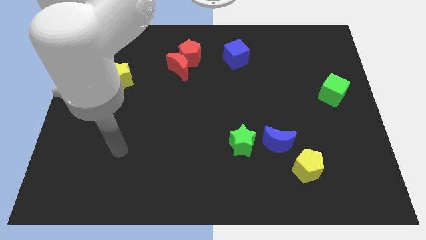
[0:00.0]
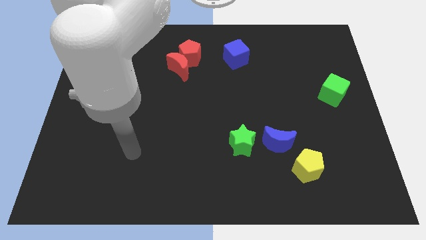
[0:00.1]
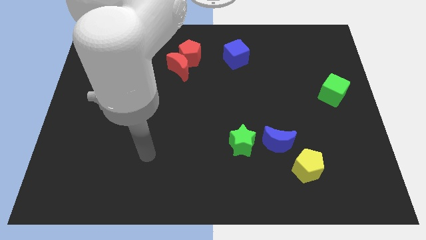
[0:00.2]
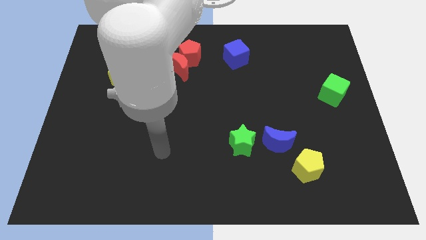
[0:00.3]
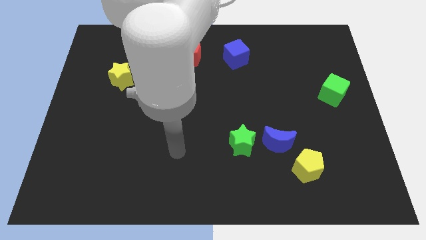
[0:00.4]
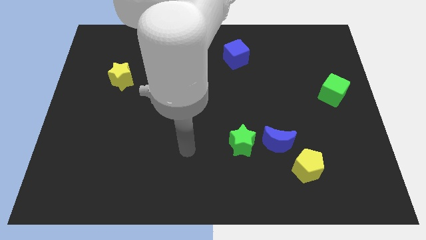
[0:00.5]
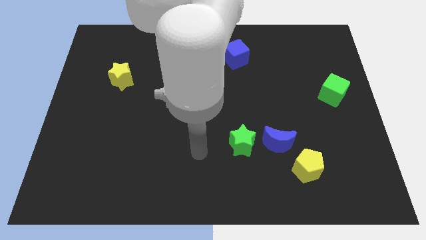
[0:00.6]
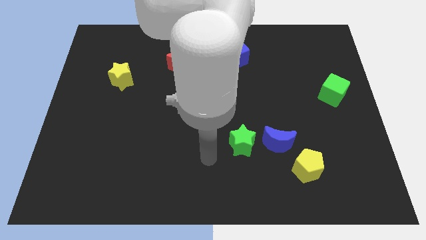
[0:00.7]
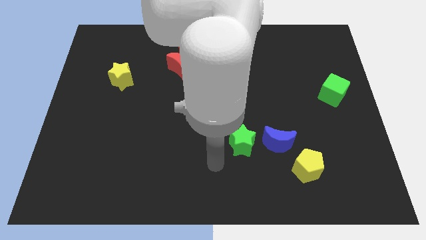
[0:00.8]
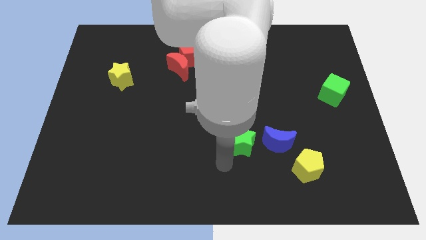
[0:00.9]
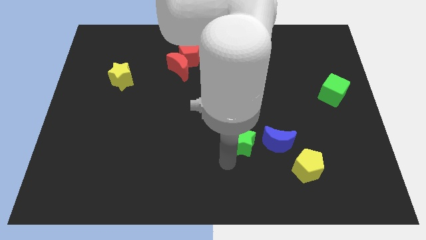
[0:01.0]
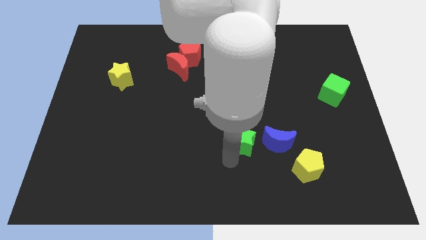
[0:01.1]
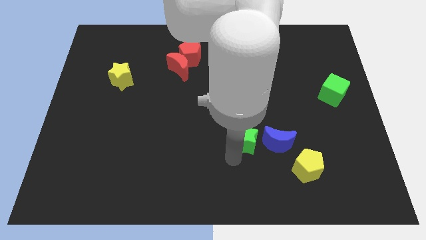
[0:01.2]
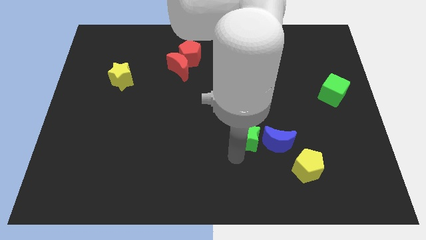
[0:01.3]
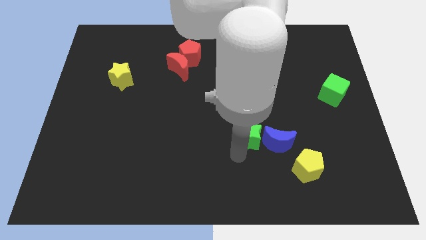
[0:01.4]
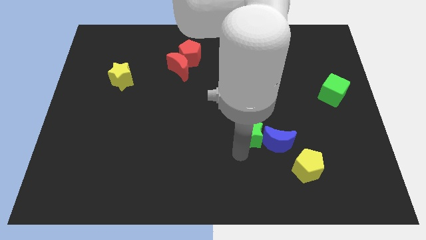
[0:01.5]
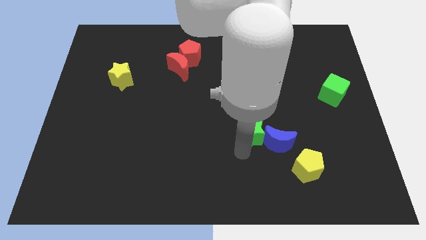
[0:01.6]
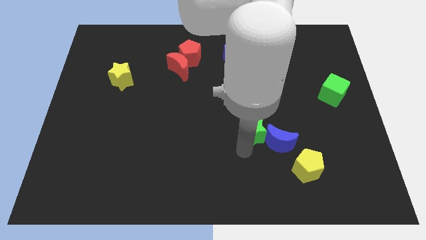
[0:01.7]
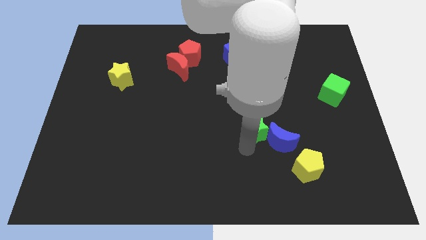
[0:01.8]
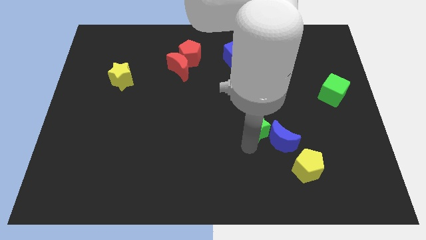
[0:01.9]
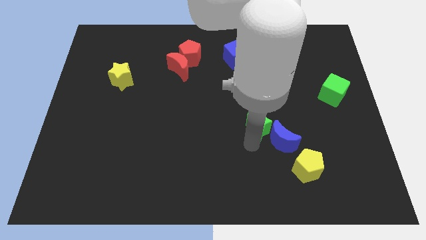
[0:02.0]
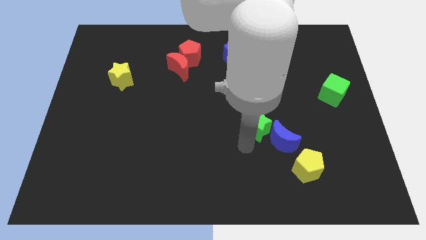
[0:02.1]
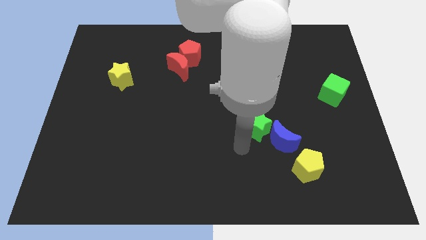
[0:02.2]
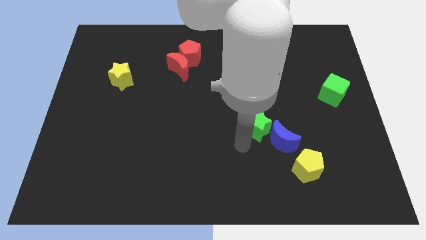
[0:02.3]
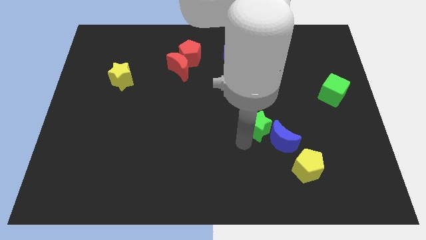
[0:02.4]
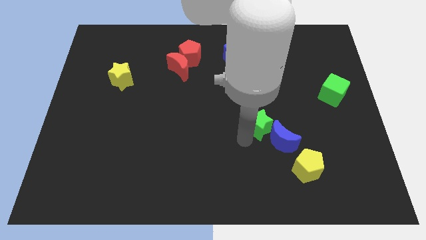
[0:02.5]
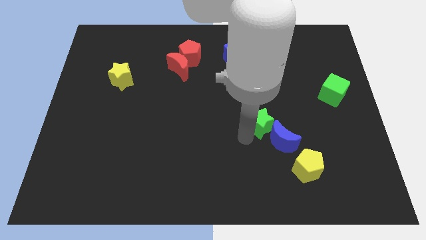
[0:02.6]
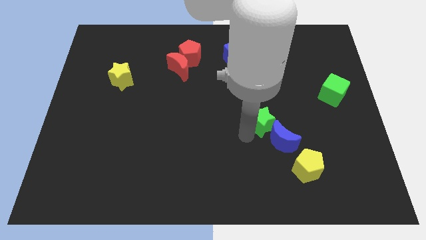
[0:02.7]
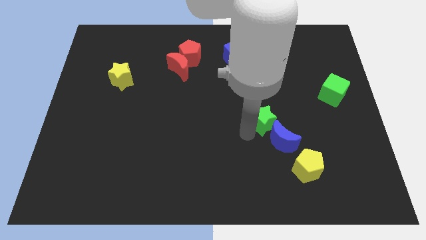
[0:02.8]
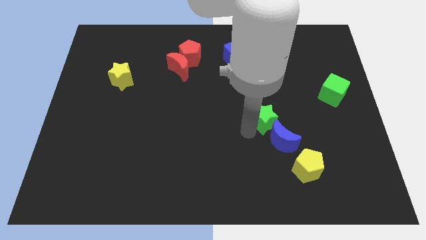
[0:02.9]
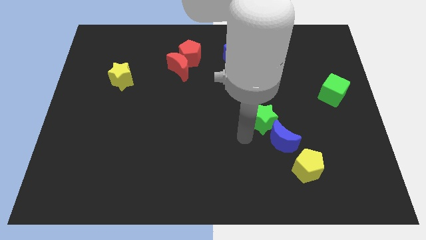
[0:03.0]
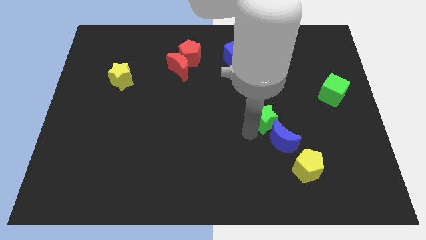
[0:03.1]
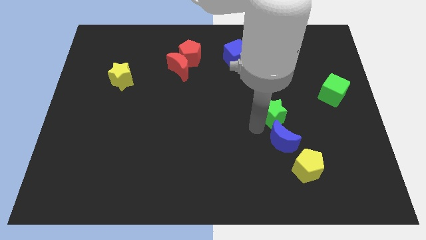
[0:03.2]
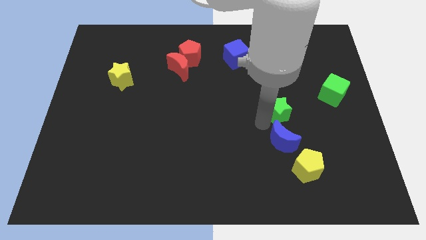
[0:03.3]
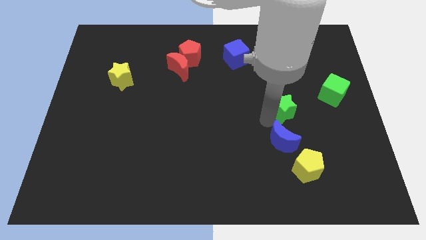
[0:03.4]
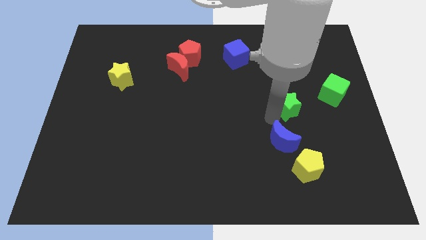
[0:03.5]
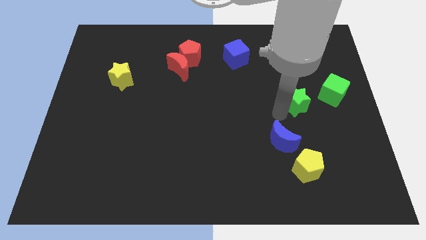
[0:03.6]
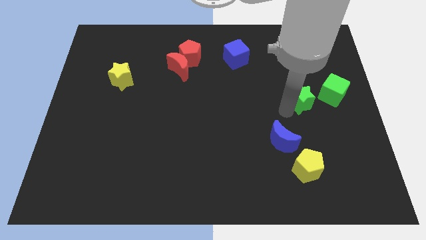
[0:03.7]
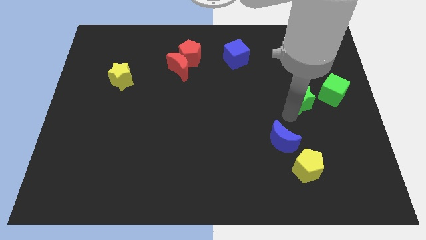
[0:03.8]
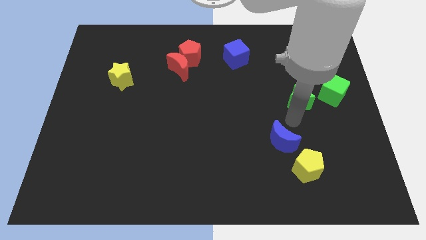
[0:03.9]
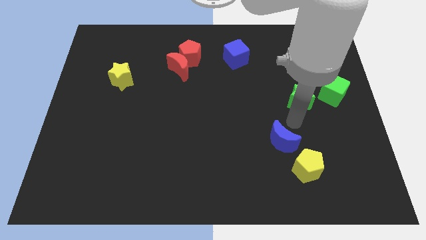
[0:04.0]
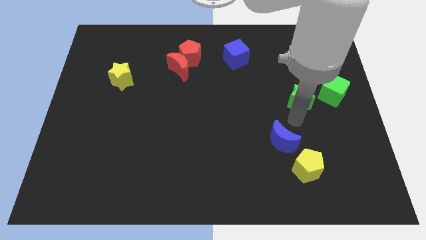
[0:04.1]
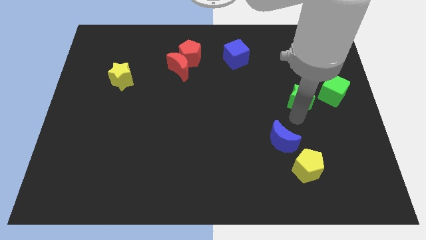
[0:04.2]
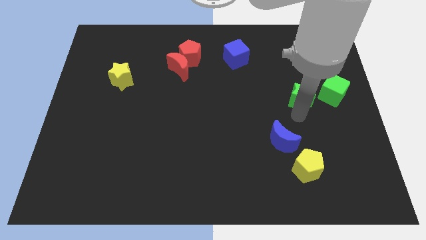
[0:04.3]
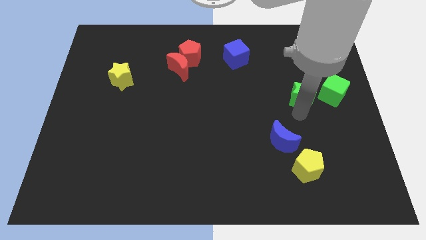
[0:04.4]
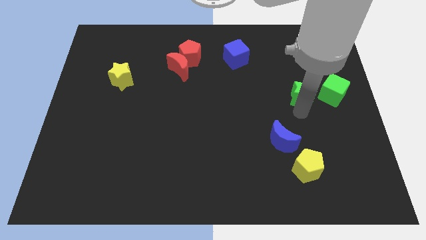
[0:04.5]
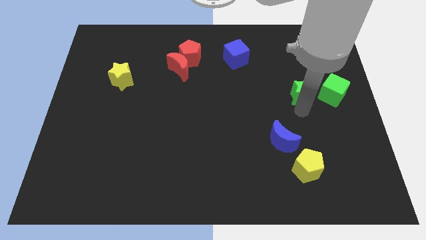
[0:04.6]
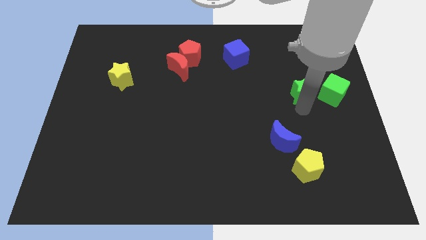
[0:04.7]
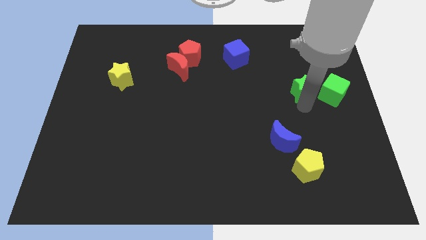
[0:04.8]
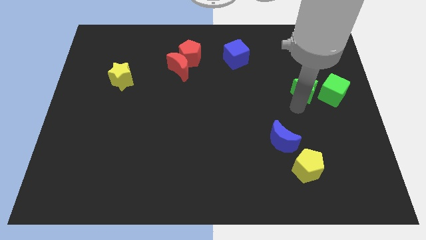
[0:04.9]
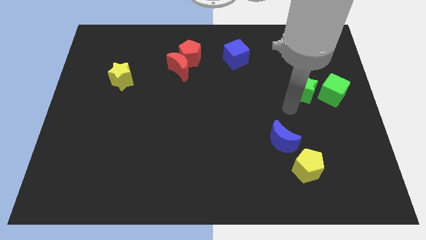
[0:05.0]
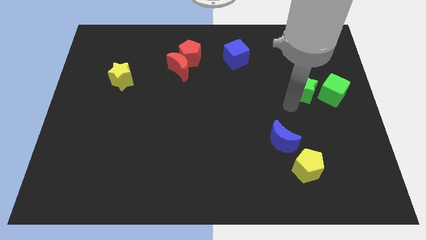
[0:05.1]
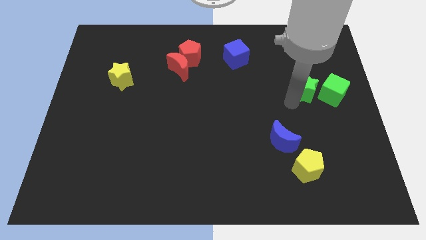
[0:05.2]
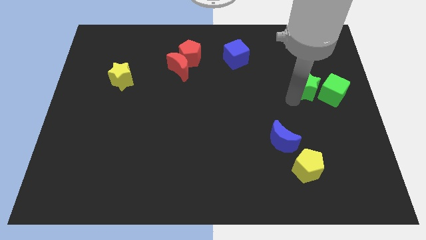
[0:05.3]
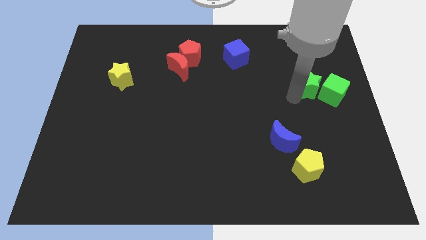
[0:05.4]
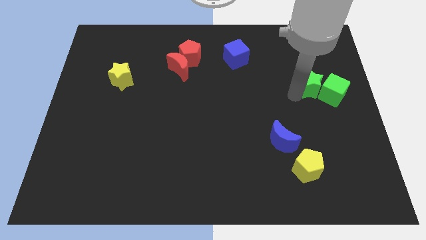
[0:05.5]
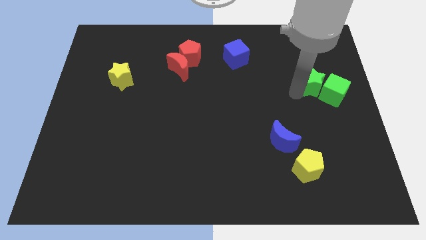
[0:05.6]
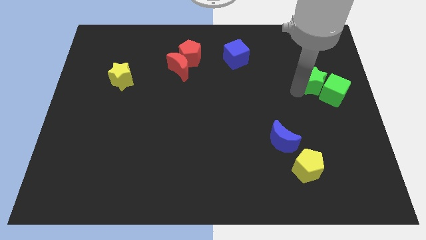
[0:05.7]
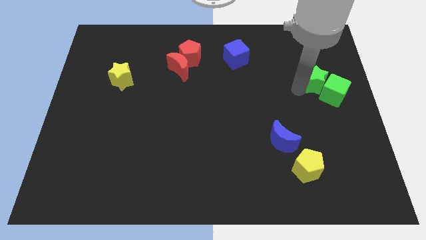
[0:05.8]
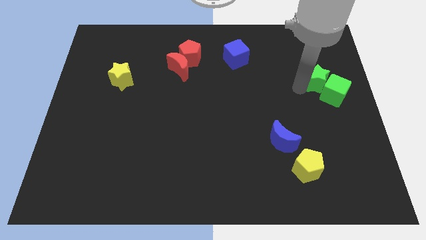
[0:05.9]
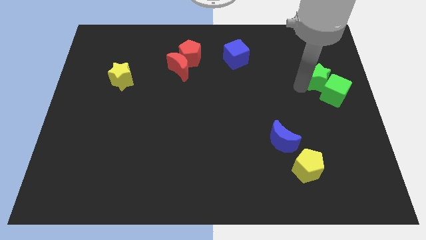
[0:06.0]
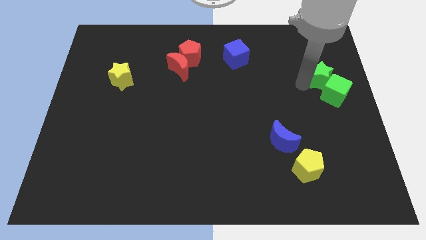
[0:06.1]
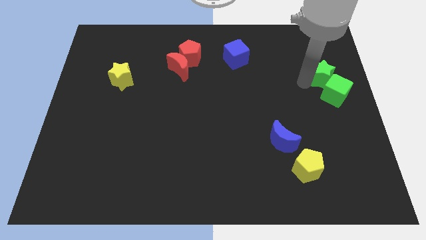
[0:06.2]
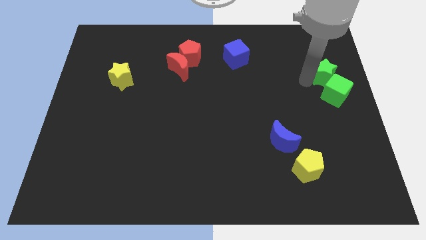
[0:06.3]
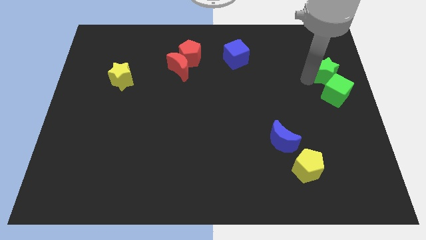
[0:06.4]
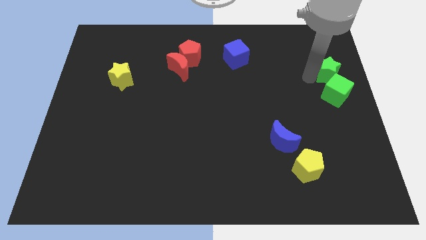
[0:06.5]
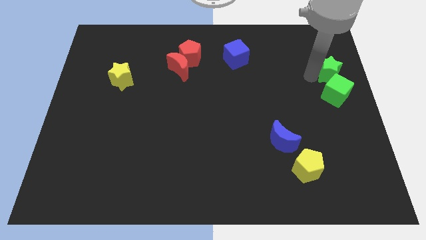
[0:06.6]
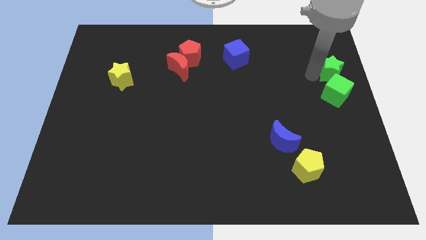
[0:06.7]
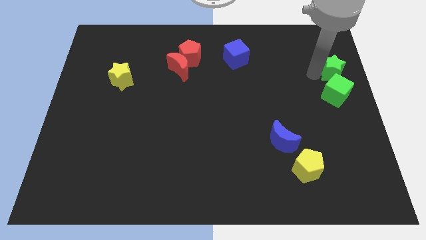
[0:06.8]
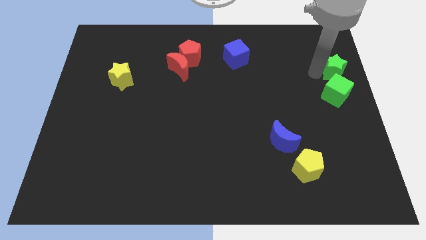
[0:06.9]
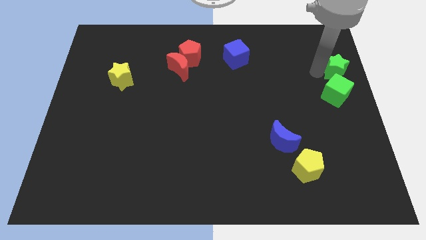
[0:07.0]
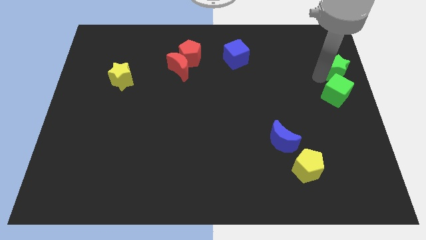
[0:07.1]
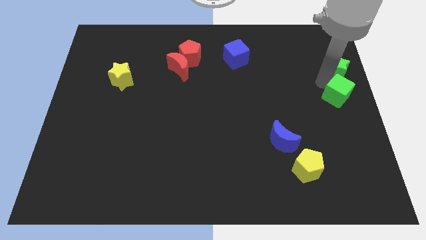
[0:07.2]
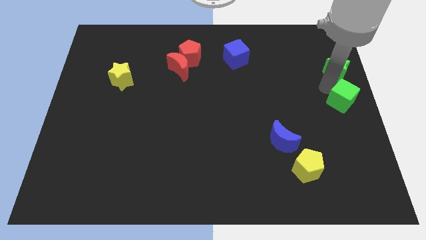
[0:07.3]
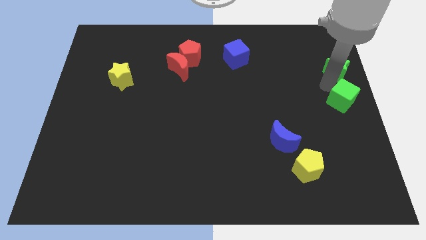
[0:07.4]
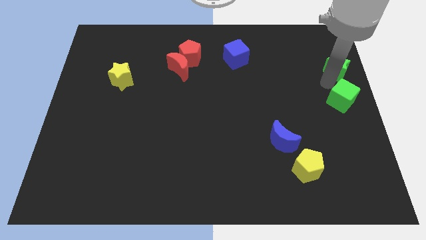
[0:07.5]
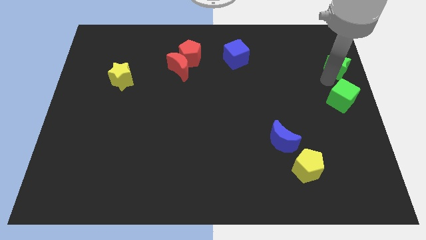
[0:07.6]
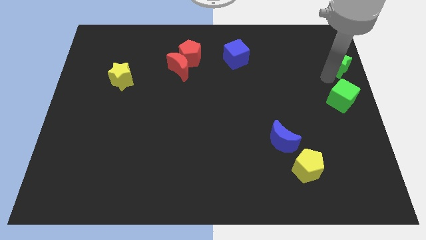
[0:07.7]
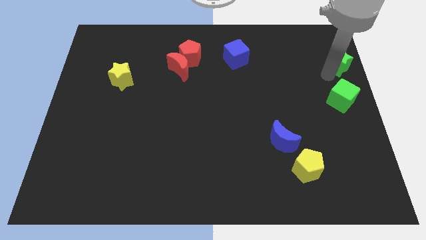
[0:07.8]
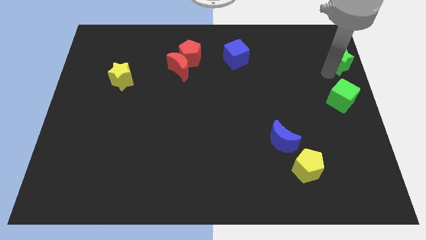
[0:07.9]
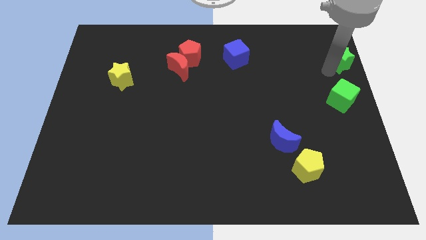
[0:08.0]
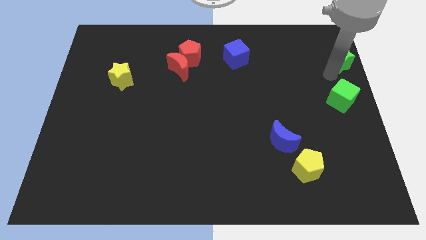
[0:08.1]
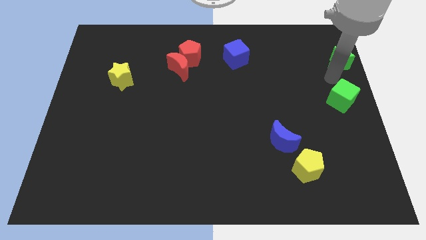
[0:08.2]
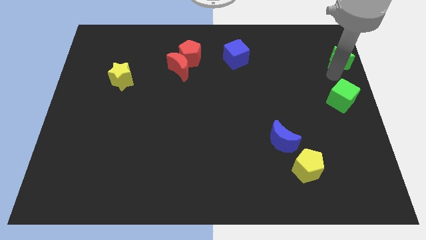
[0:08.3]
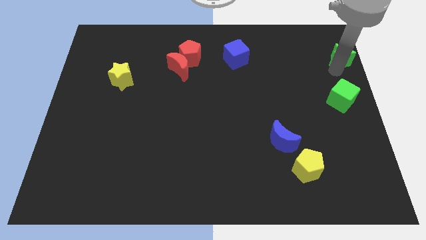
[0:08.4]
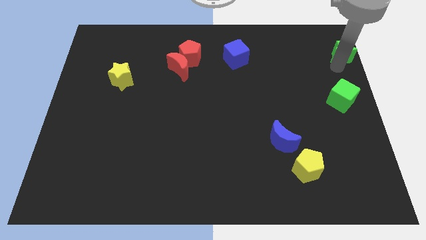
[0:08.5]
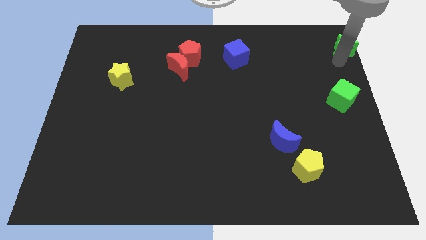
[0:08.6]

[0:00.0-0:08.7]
put the green star to the top right of the board
